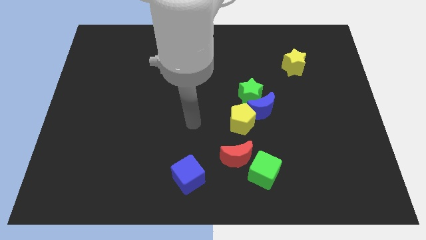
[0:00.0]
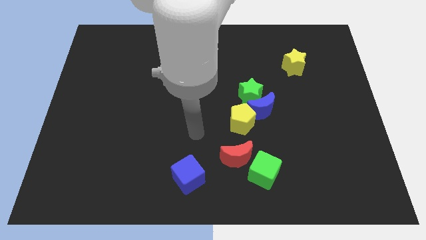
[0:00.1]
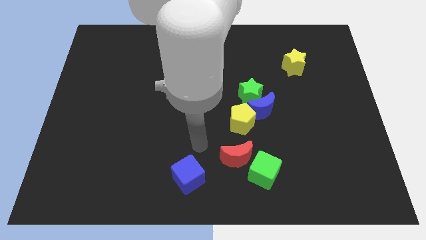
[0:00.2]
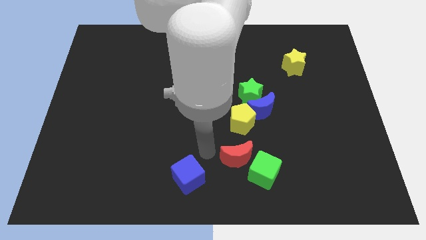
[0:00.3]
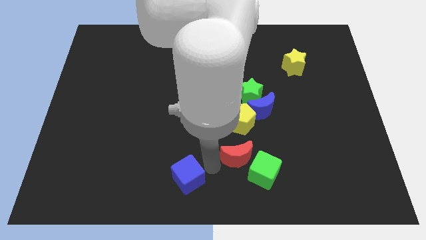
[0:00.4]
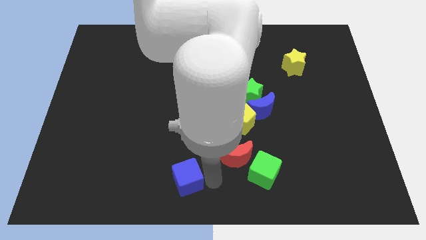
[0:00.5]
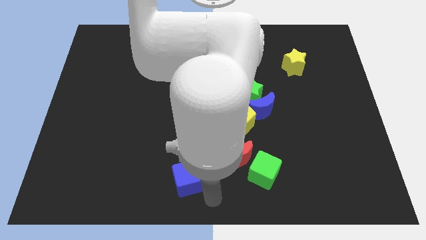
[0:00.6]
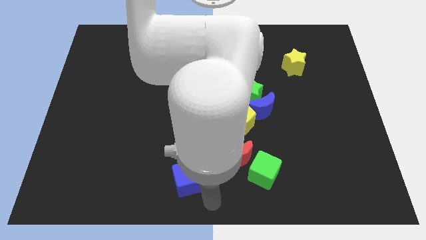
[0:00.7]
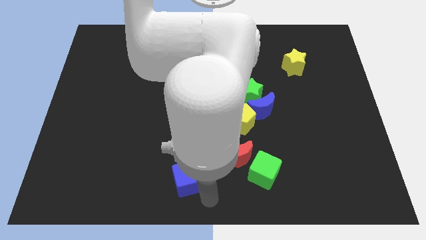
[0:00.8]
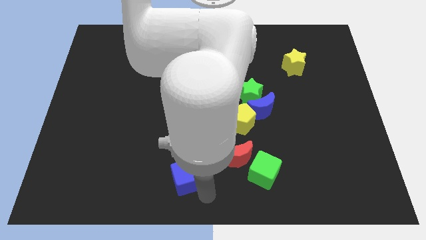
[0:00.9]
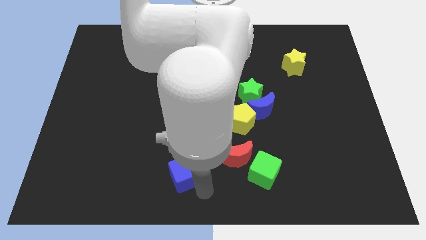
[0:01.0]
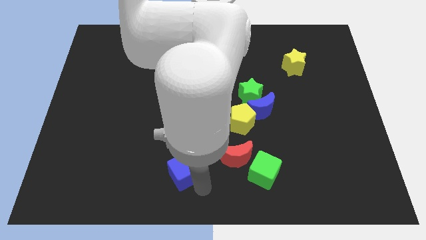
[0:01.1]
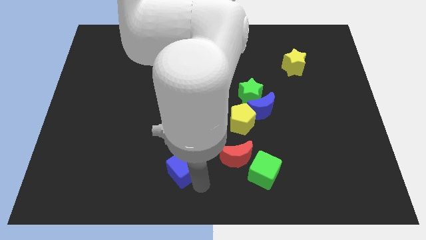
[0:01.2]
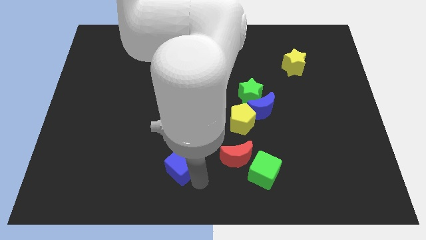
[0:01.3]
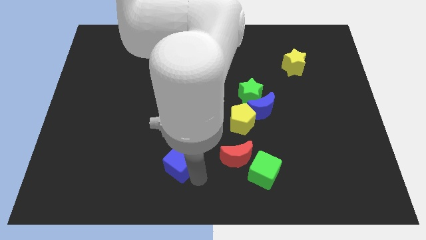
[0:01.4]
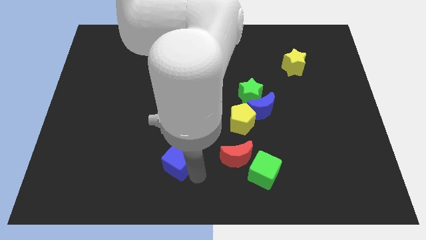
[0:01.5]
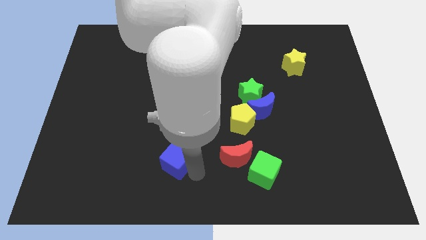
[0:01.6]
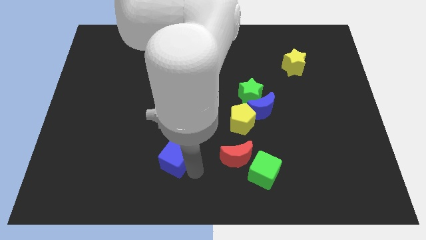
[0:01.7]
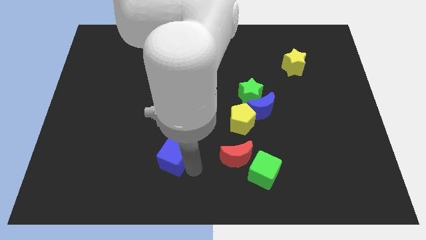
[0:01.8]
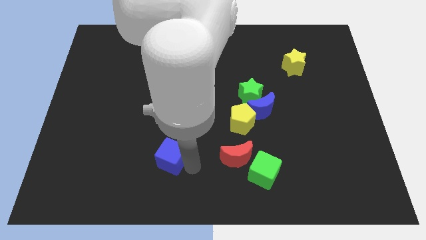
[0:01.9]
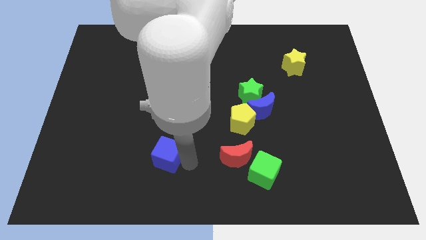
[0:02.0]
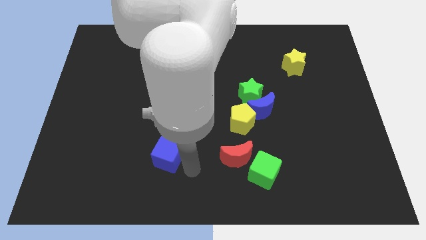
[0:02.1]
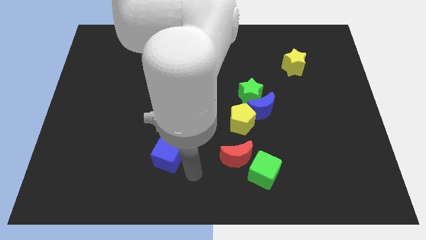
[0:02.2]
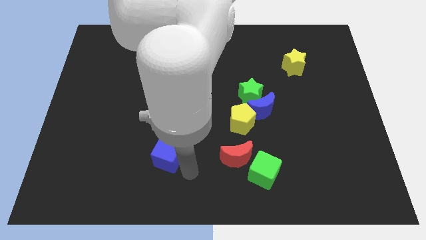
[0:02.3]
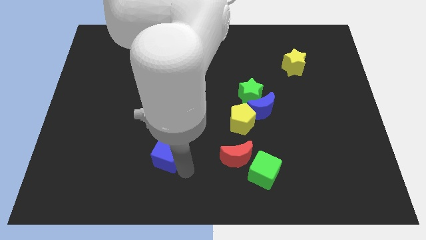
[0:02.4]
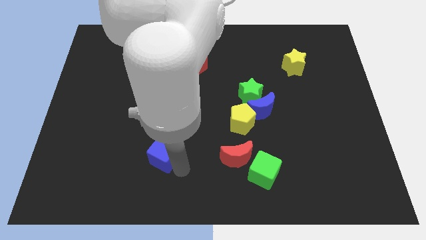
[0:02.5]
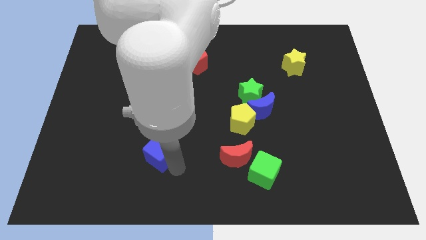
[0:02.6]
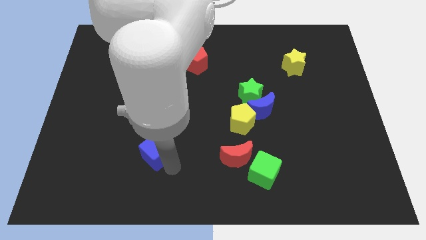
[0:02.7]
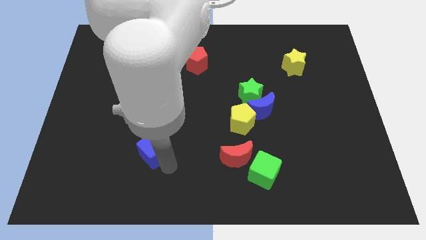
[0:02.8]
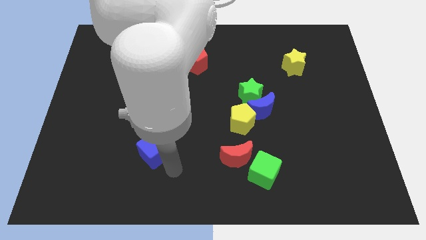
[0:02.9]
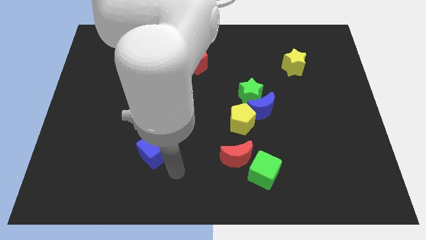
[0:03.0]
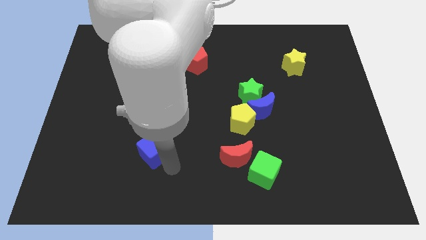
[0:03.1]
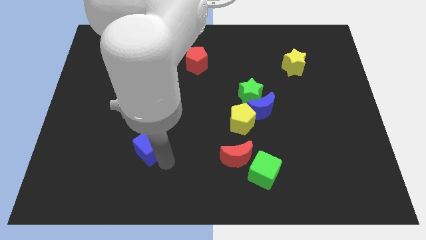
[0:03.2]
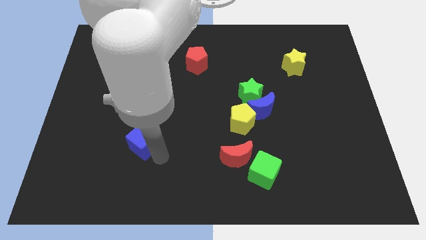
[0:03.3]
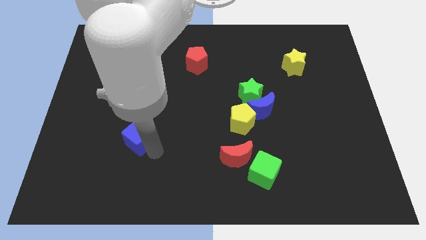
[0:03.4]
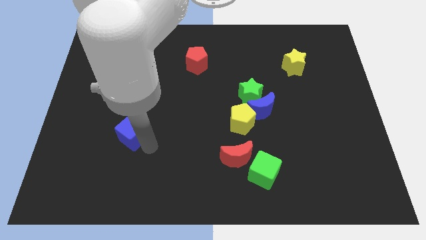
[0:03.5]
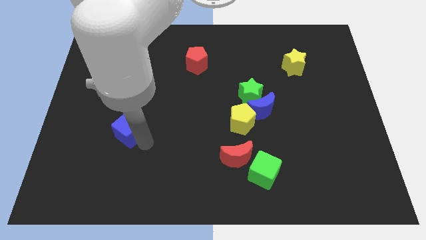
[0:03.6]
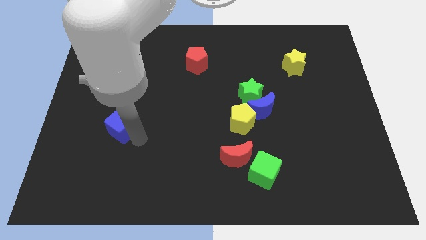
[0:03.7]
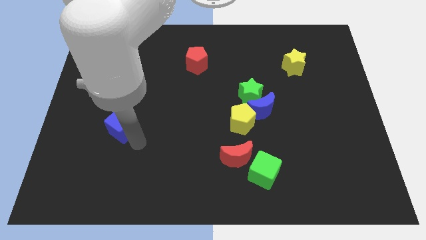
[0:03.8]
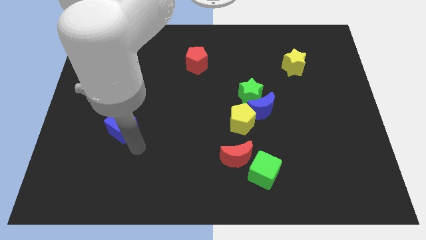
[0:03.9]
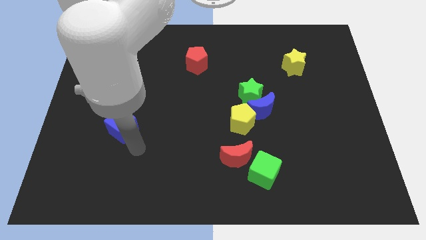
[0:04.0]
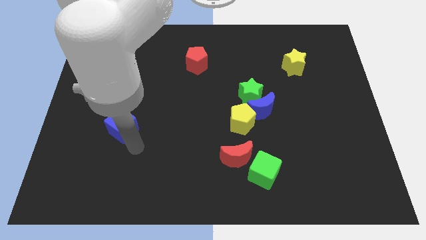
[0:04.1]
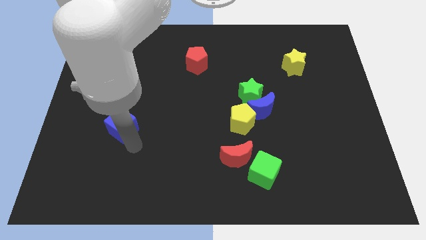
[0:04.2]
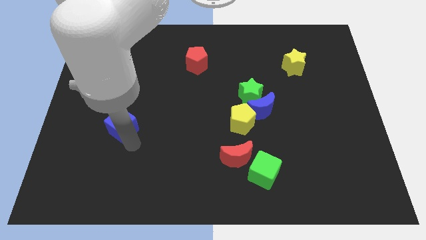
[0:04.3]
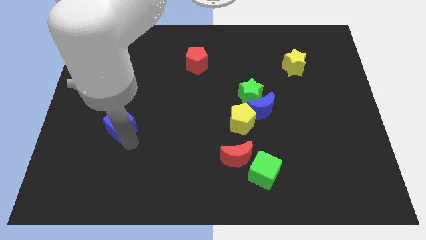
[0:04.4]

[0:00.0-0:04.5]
move the blue cube upwards and left

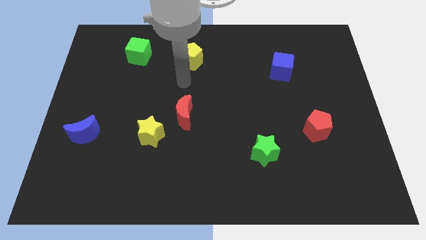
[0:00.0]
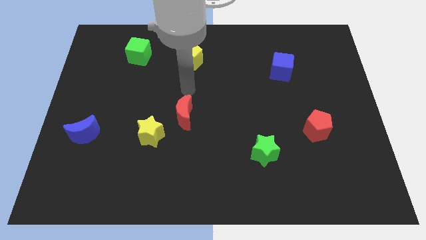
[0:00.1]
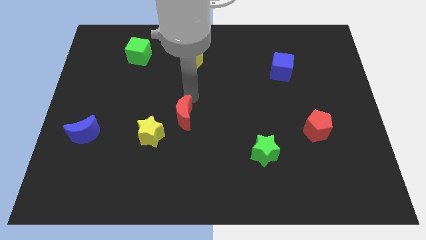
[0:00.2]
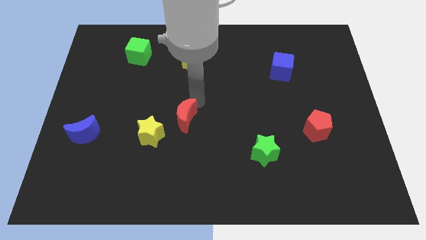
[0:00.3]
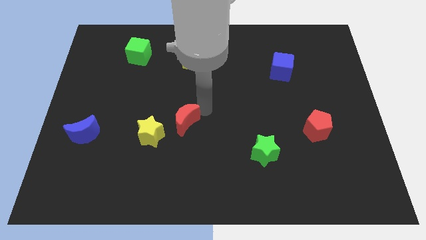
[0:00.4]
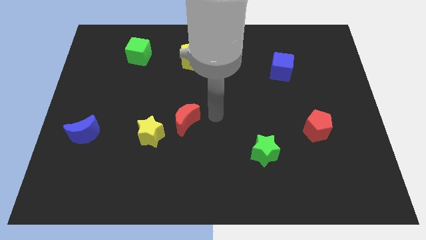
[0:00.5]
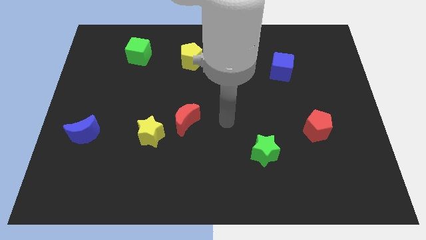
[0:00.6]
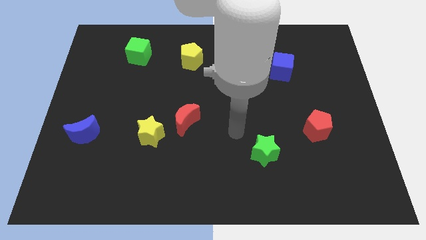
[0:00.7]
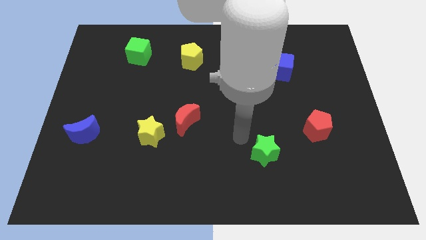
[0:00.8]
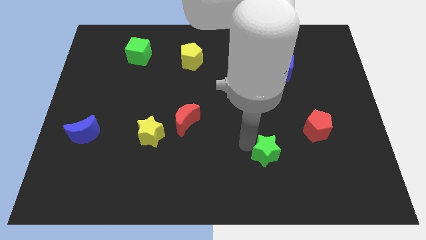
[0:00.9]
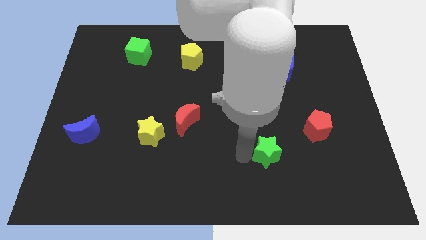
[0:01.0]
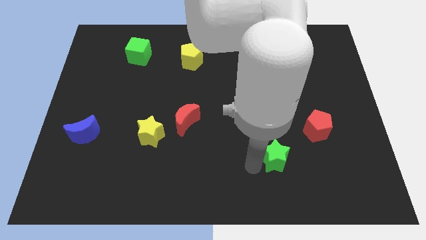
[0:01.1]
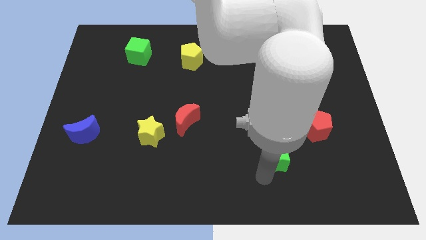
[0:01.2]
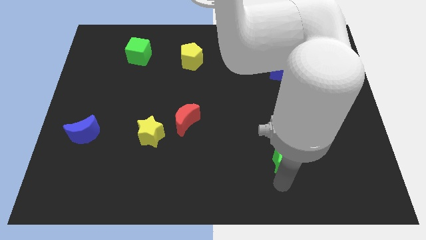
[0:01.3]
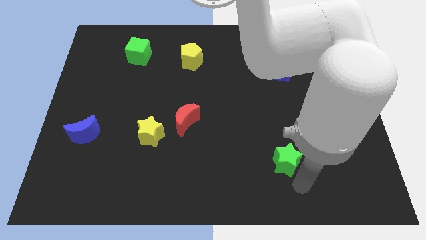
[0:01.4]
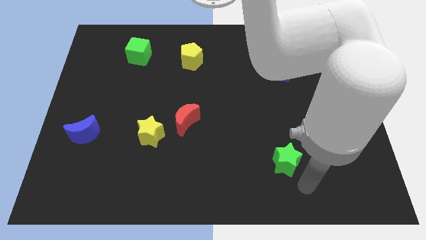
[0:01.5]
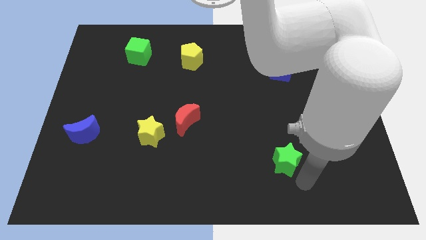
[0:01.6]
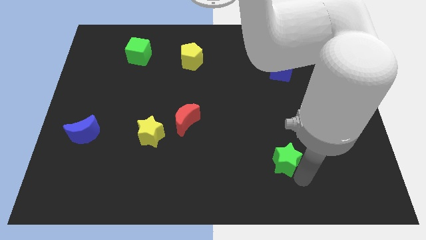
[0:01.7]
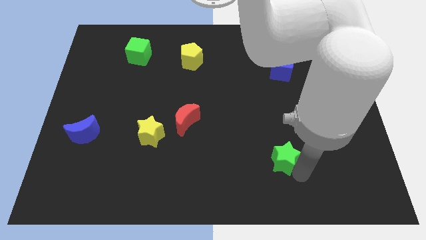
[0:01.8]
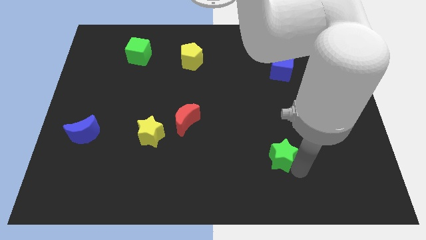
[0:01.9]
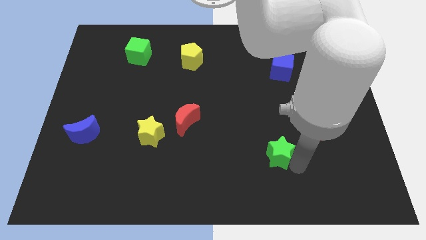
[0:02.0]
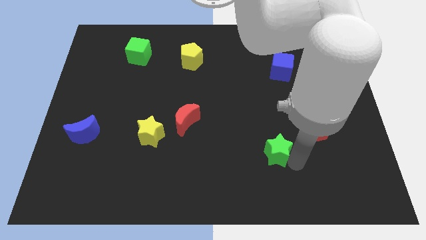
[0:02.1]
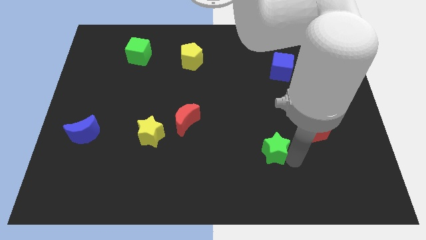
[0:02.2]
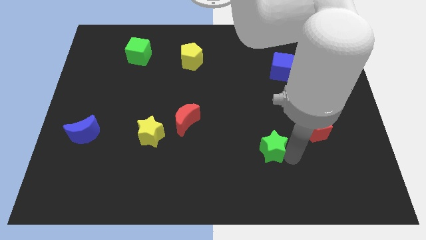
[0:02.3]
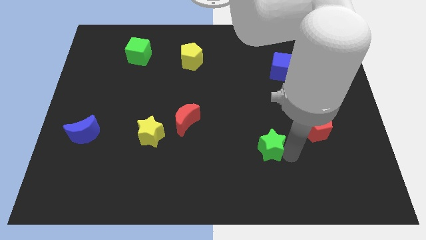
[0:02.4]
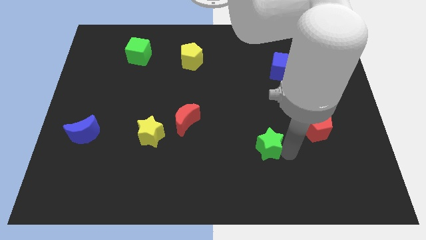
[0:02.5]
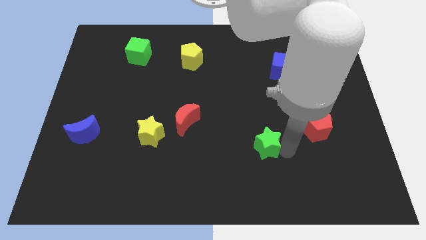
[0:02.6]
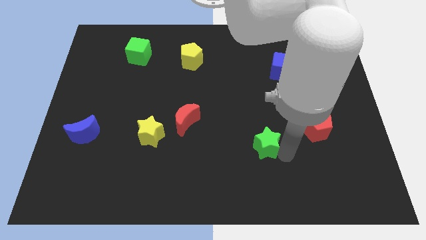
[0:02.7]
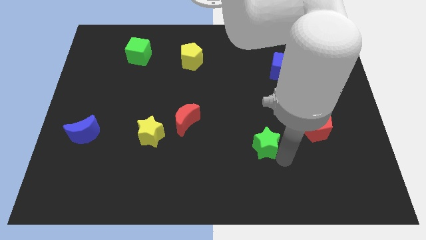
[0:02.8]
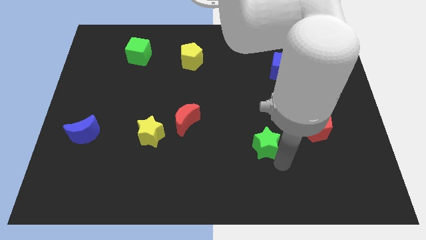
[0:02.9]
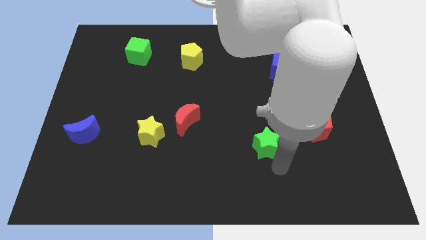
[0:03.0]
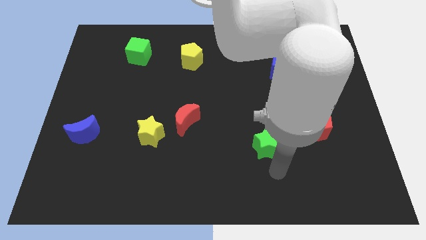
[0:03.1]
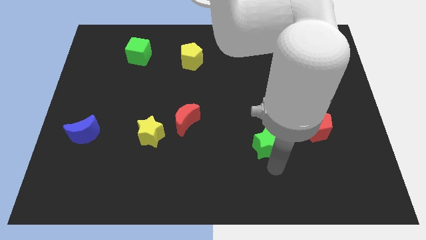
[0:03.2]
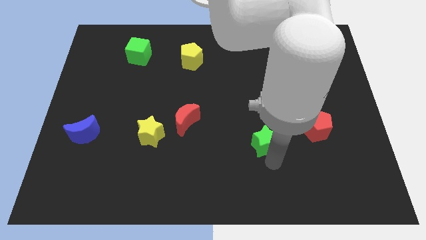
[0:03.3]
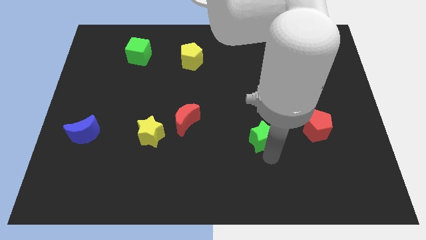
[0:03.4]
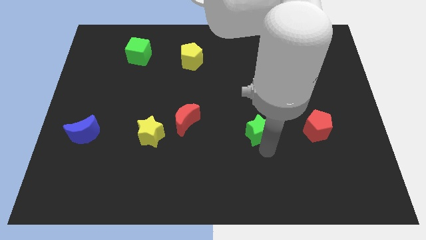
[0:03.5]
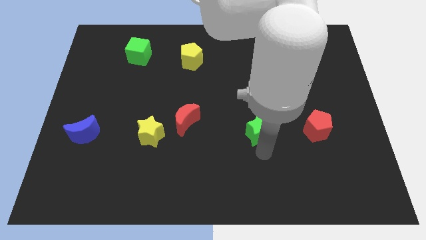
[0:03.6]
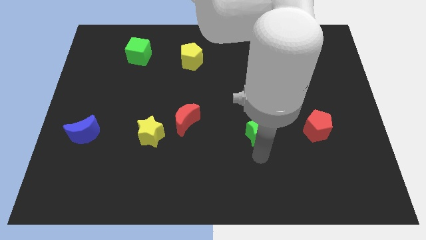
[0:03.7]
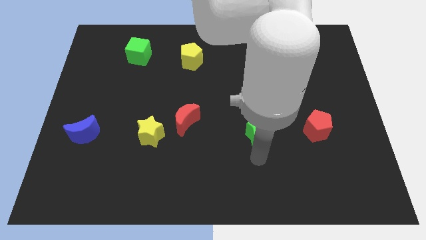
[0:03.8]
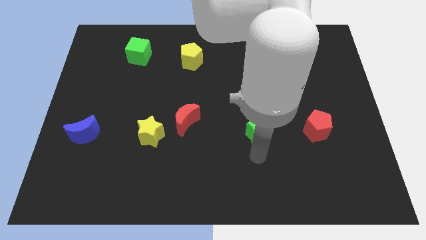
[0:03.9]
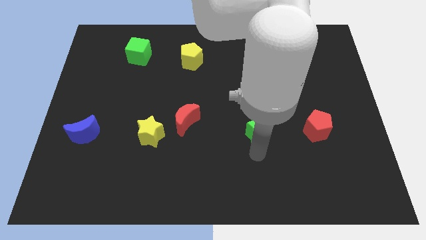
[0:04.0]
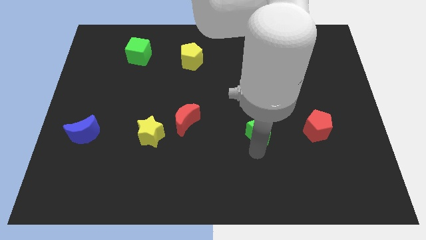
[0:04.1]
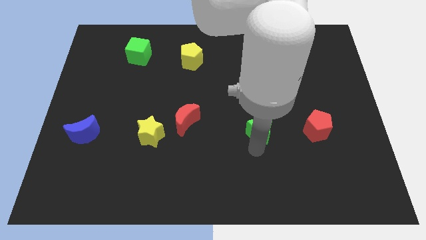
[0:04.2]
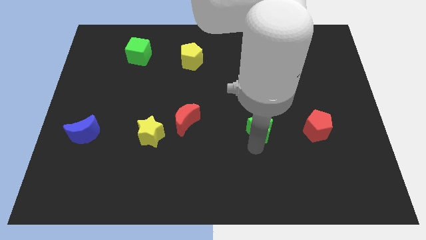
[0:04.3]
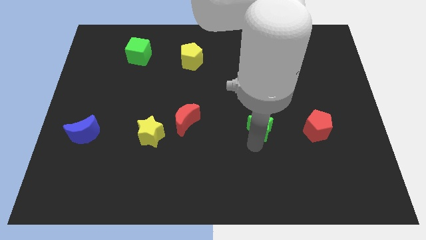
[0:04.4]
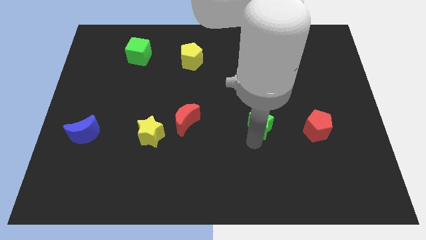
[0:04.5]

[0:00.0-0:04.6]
slightly push the green star up
